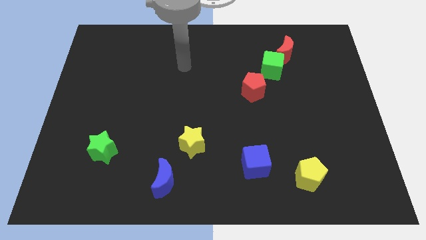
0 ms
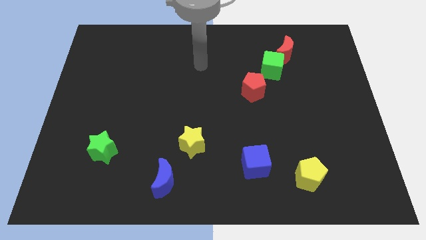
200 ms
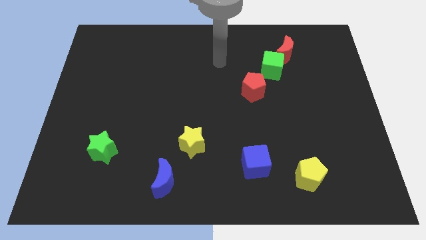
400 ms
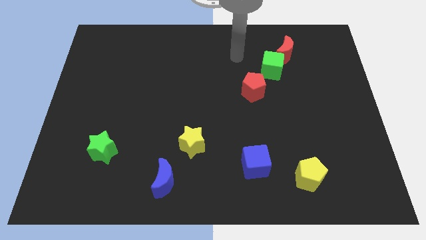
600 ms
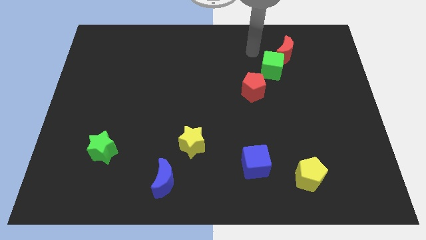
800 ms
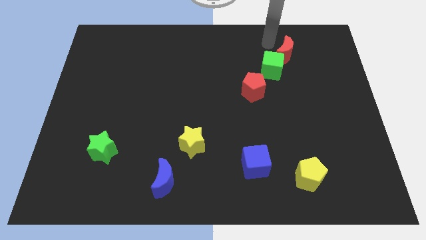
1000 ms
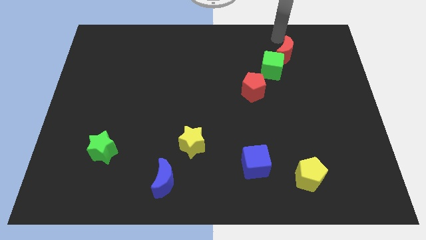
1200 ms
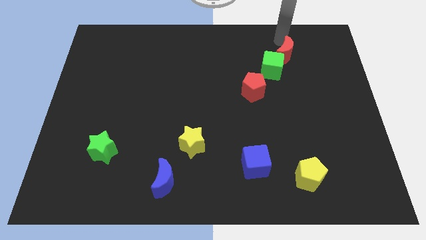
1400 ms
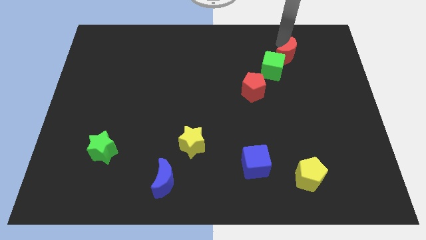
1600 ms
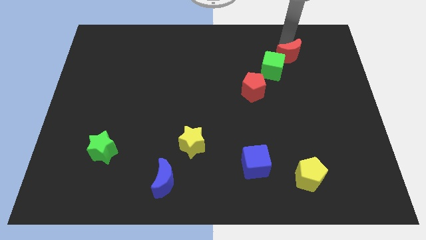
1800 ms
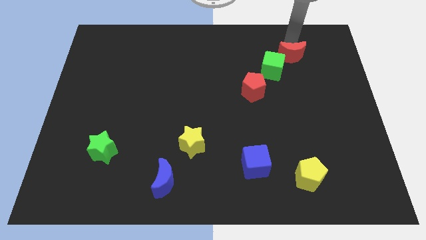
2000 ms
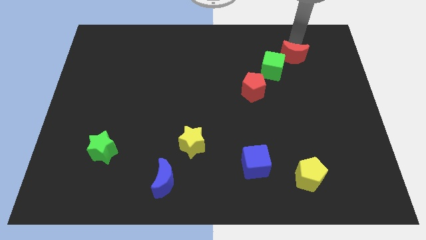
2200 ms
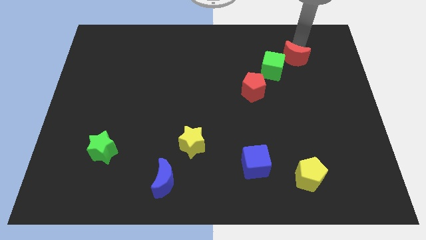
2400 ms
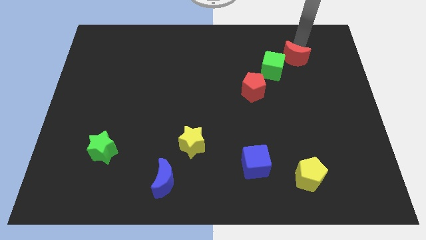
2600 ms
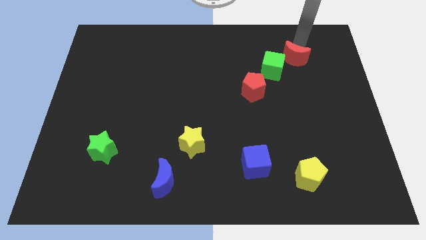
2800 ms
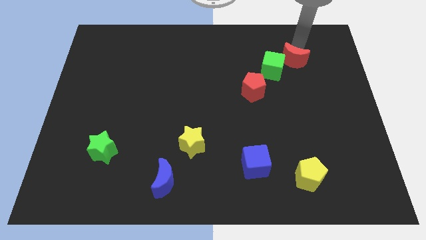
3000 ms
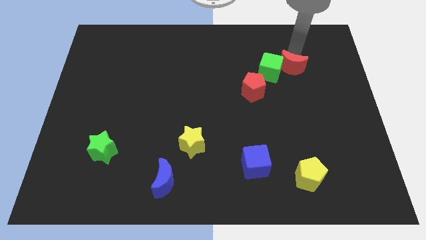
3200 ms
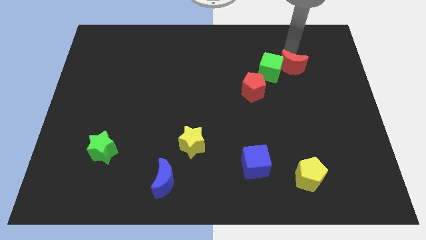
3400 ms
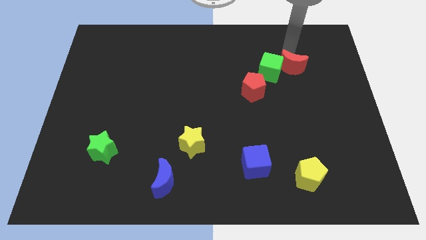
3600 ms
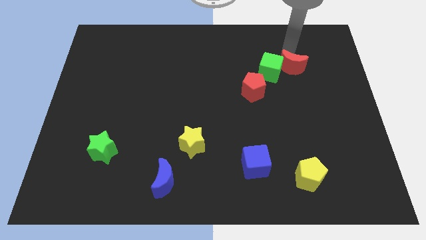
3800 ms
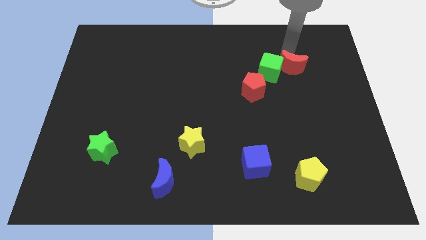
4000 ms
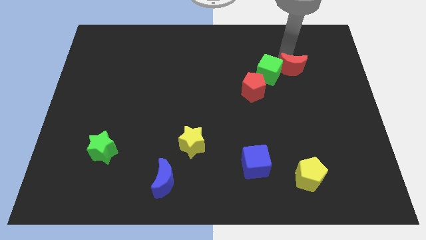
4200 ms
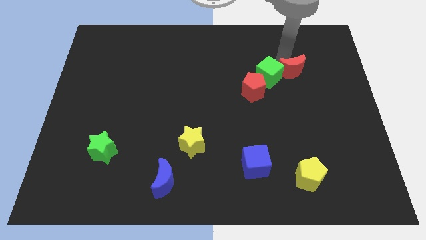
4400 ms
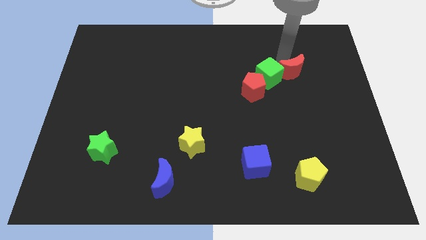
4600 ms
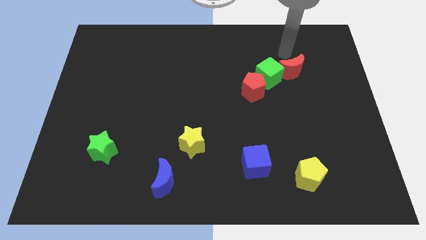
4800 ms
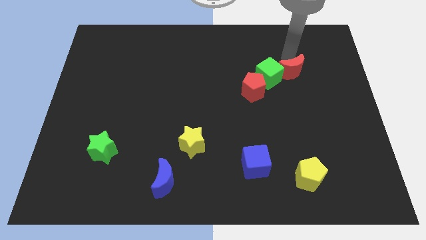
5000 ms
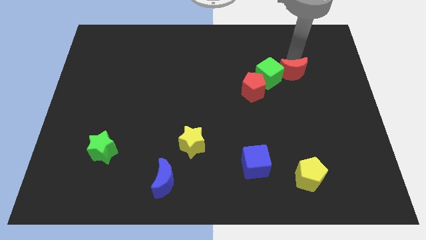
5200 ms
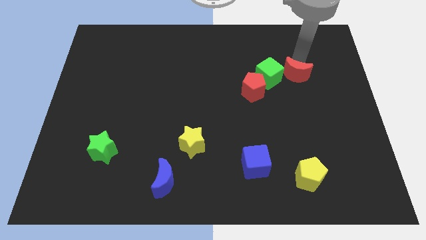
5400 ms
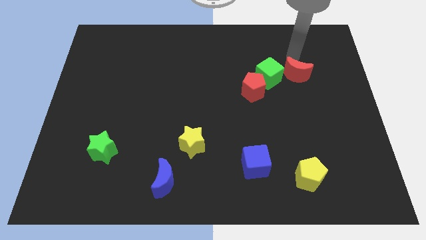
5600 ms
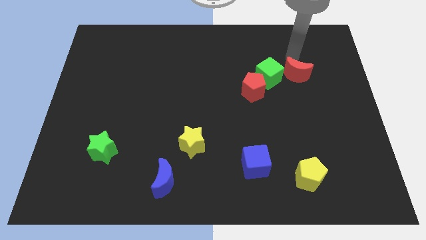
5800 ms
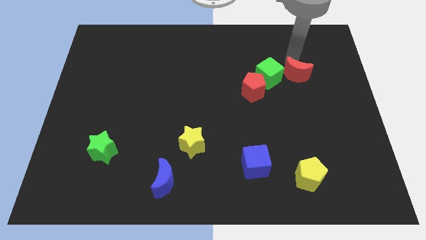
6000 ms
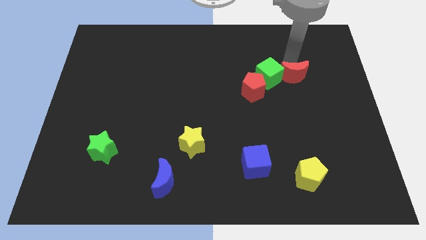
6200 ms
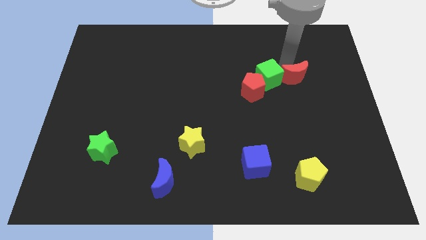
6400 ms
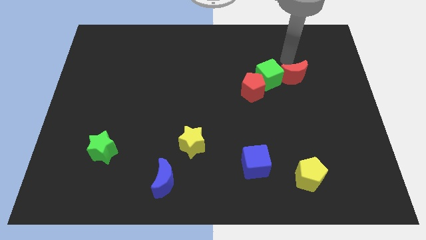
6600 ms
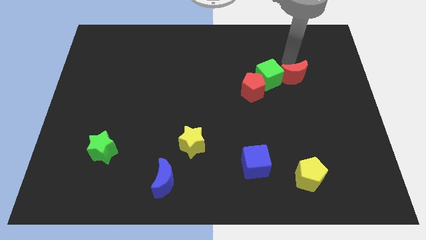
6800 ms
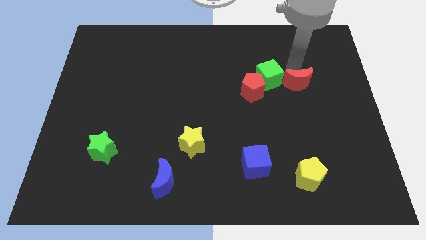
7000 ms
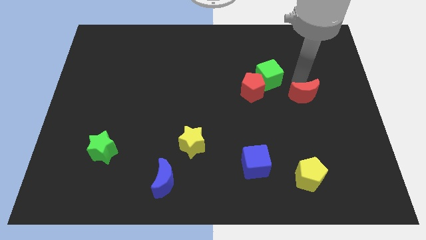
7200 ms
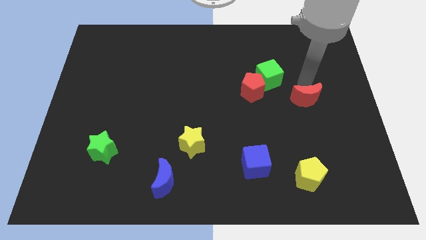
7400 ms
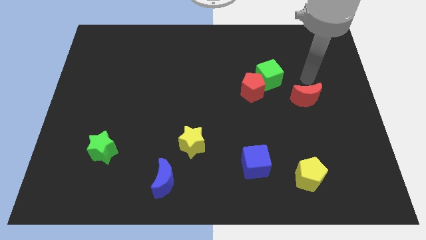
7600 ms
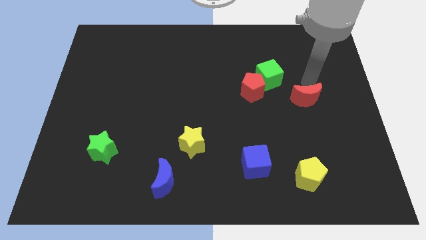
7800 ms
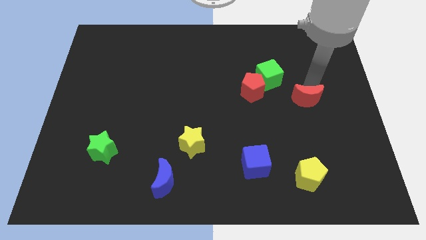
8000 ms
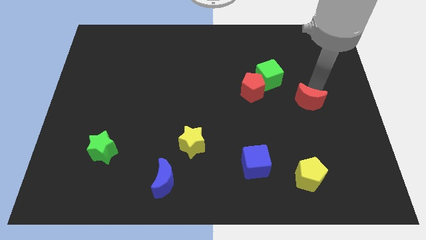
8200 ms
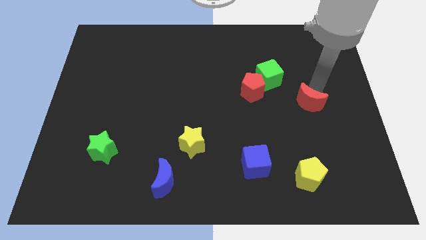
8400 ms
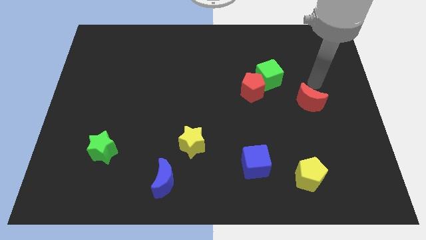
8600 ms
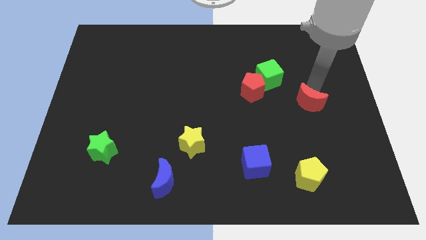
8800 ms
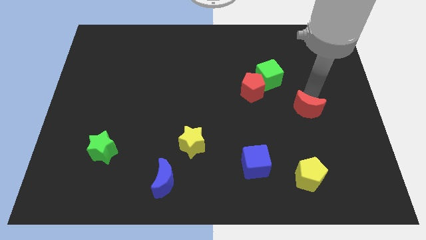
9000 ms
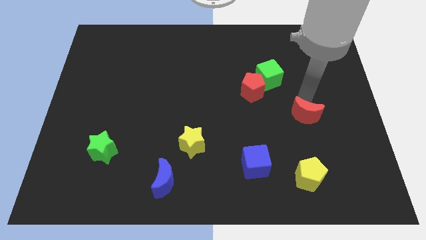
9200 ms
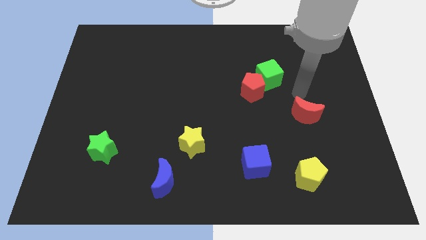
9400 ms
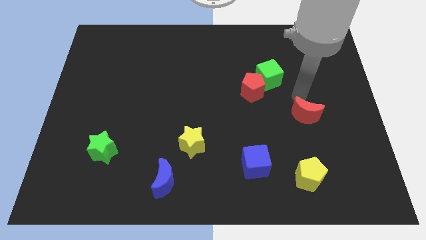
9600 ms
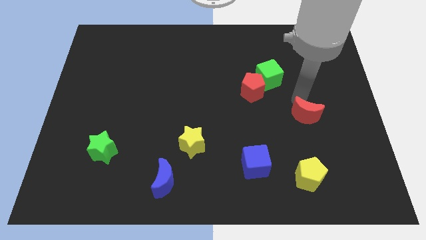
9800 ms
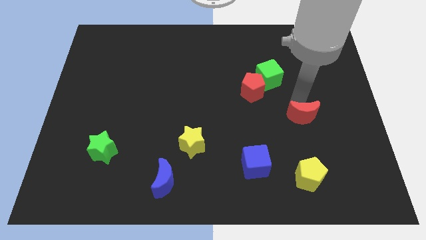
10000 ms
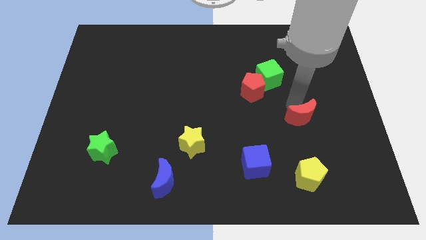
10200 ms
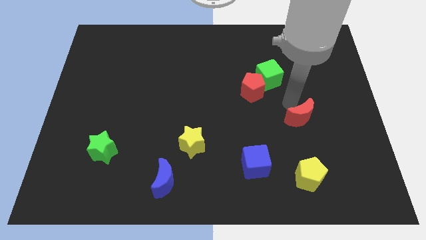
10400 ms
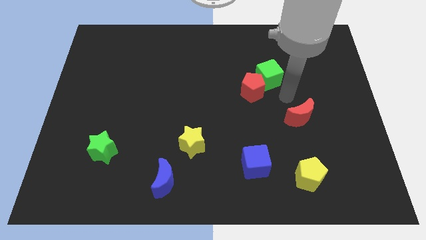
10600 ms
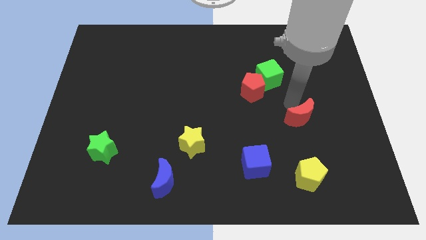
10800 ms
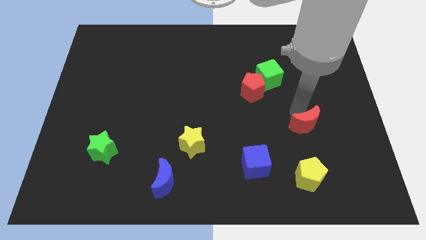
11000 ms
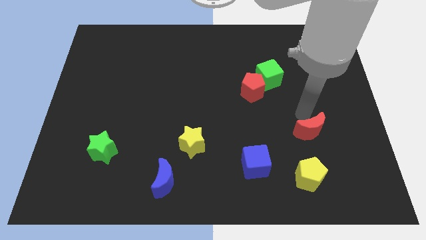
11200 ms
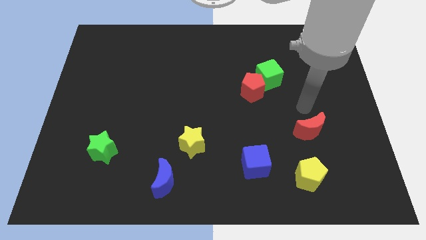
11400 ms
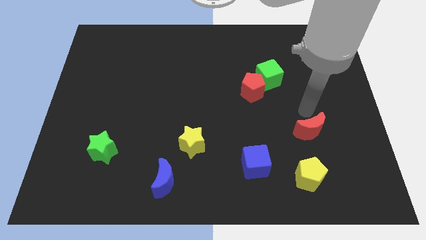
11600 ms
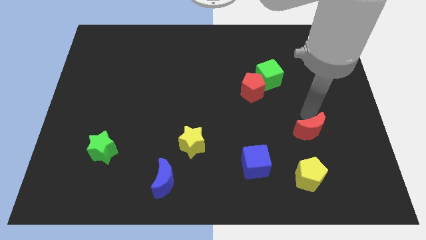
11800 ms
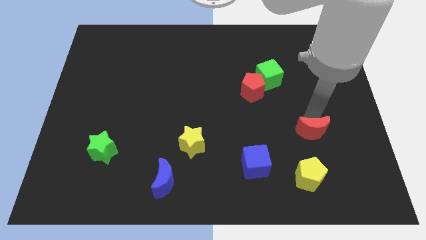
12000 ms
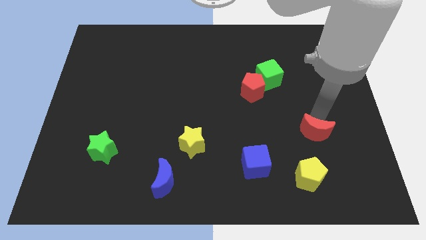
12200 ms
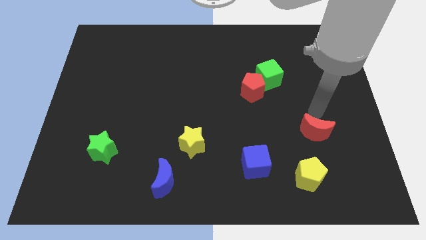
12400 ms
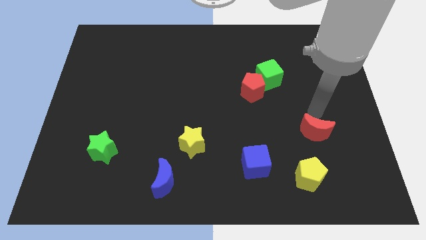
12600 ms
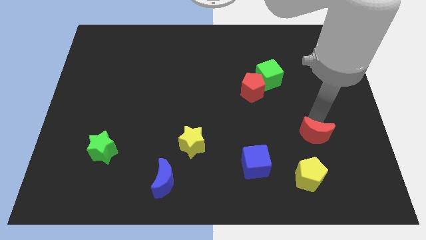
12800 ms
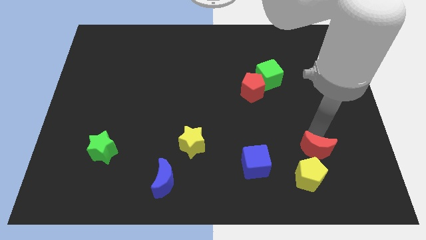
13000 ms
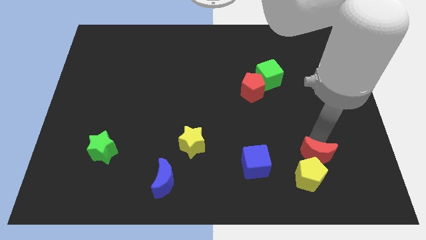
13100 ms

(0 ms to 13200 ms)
put the red moon towards the yellow pentagon
